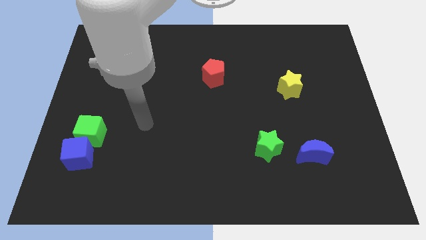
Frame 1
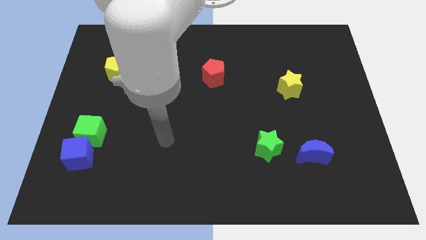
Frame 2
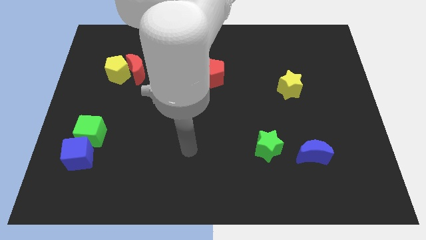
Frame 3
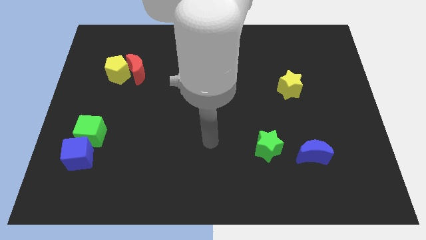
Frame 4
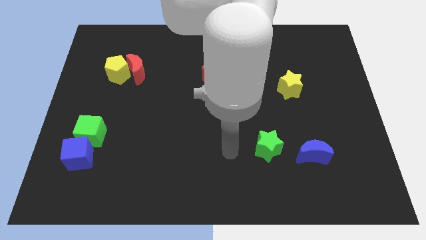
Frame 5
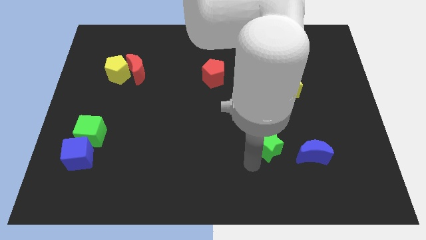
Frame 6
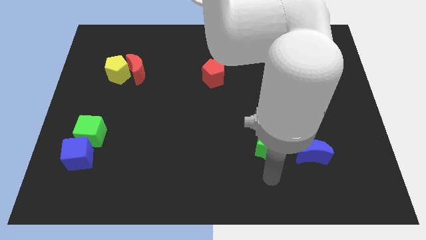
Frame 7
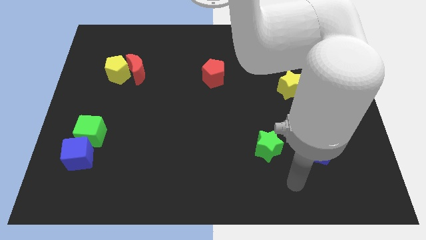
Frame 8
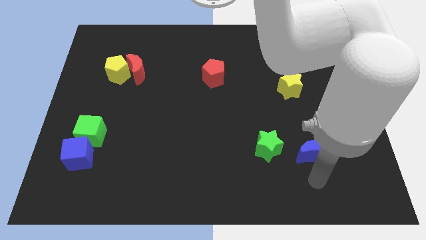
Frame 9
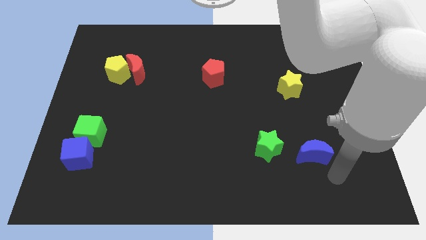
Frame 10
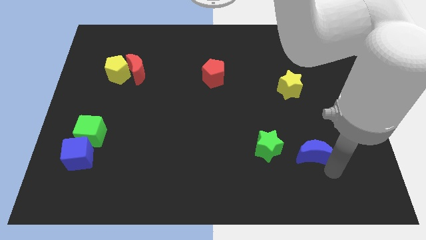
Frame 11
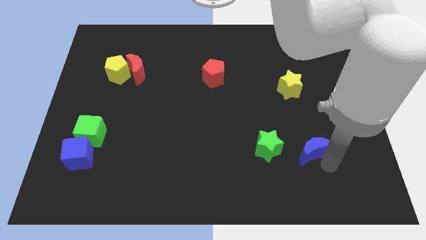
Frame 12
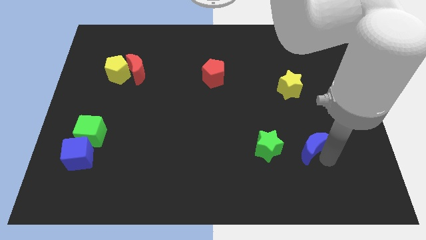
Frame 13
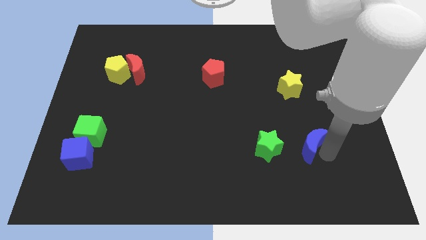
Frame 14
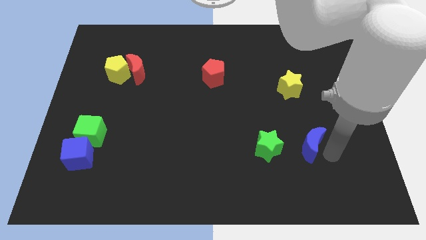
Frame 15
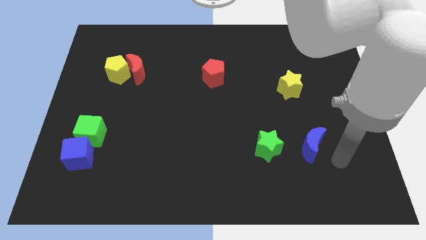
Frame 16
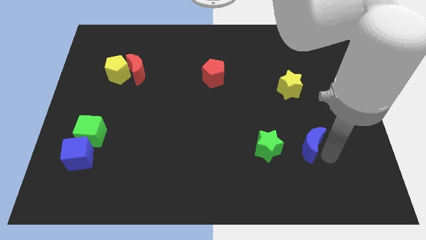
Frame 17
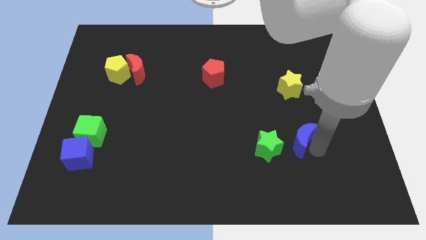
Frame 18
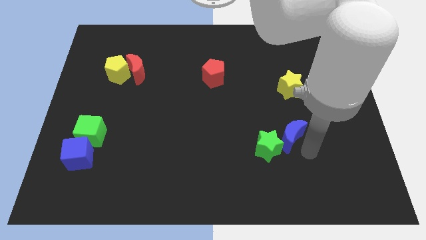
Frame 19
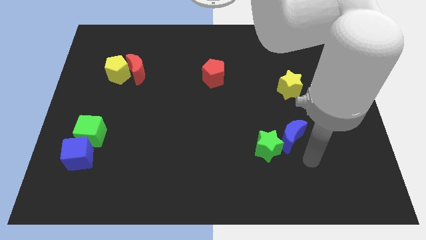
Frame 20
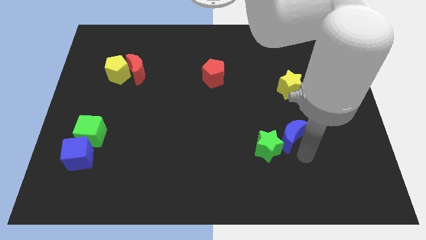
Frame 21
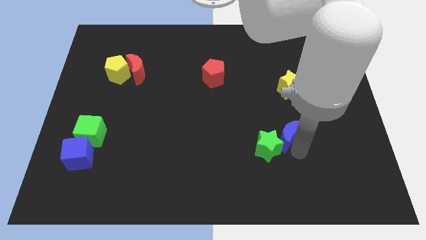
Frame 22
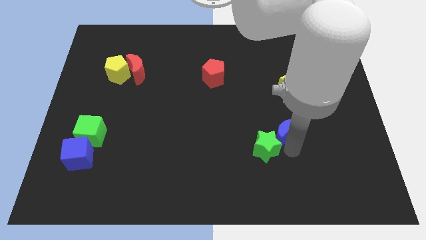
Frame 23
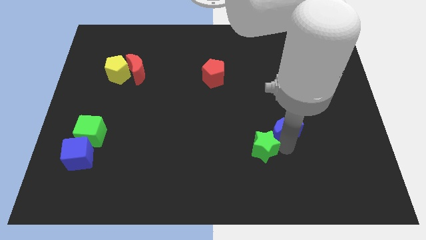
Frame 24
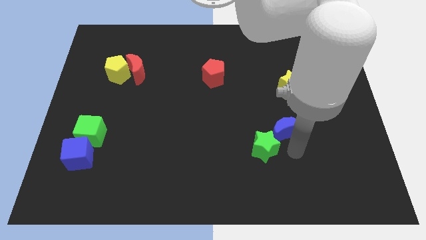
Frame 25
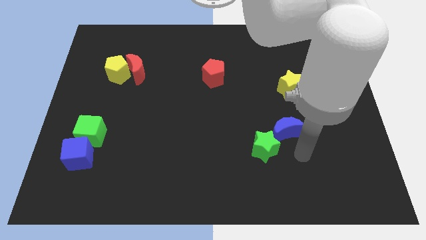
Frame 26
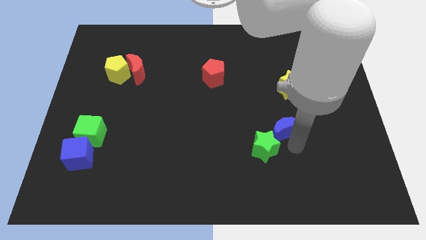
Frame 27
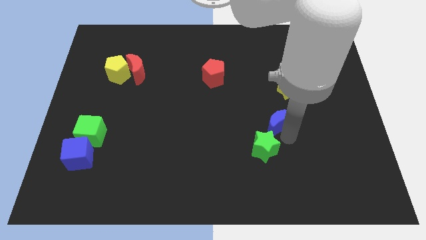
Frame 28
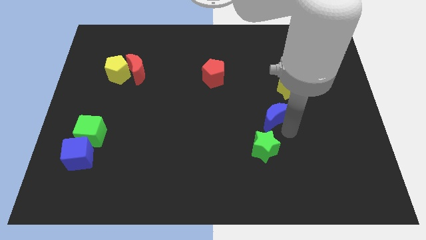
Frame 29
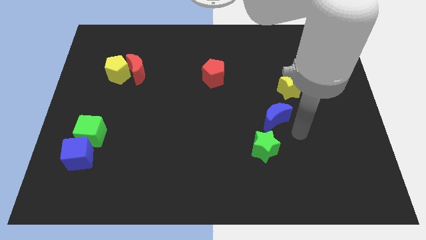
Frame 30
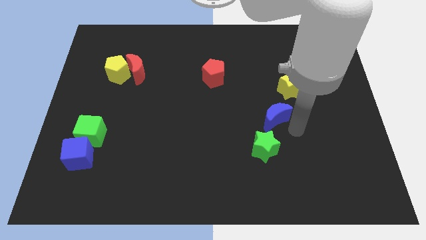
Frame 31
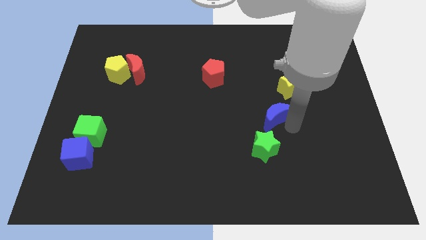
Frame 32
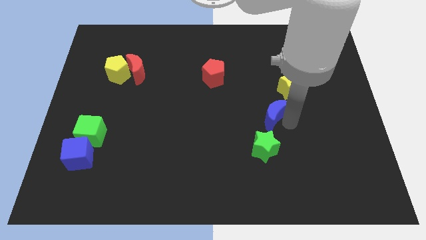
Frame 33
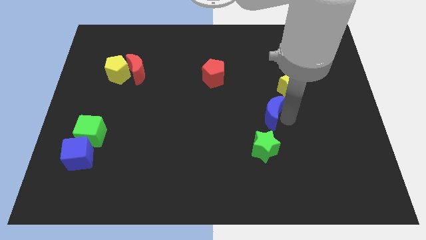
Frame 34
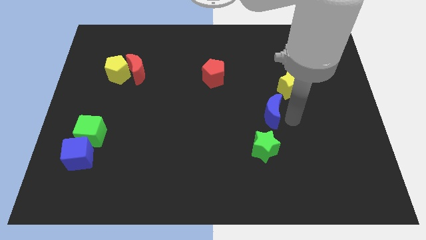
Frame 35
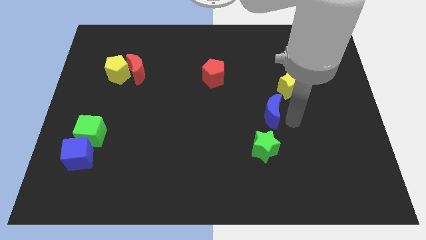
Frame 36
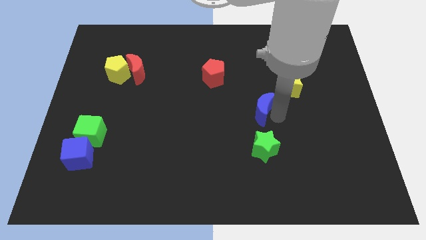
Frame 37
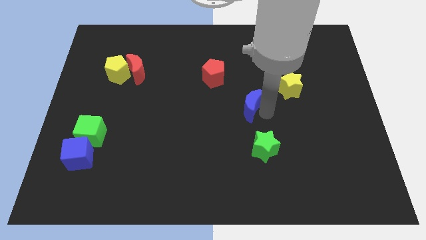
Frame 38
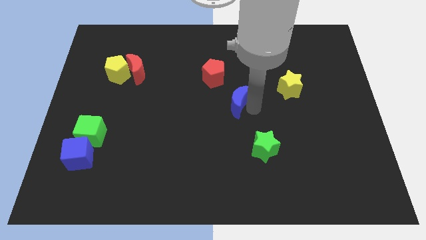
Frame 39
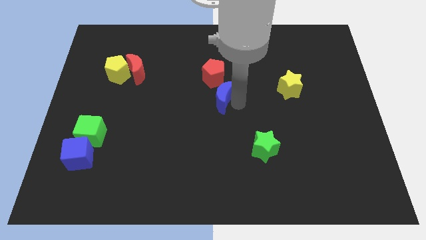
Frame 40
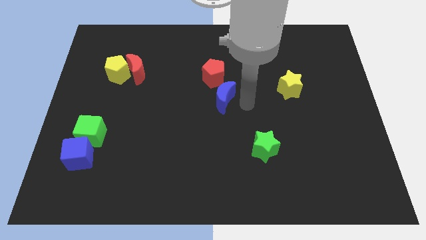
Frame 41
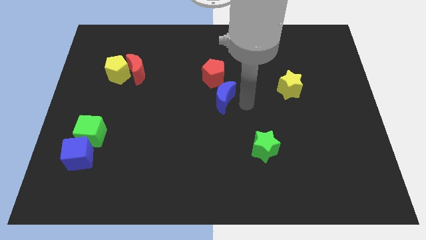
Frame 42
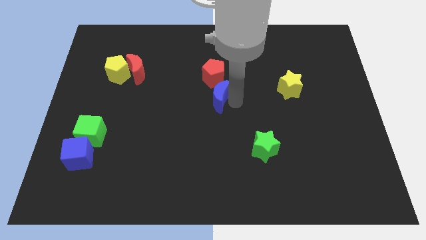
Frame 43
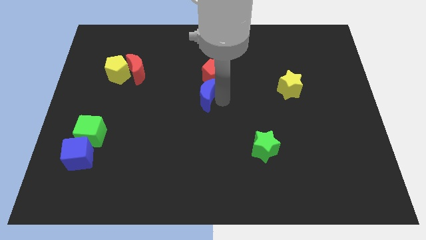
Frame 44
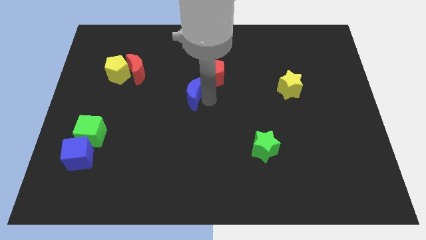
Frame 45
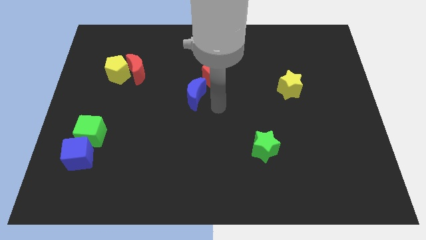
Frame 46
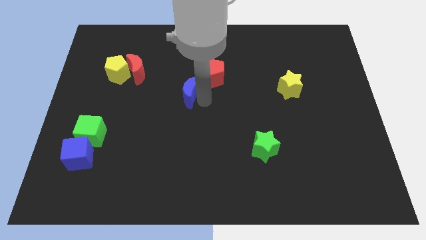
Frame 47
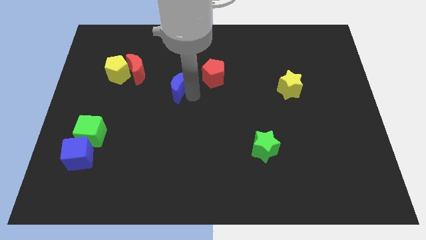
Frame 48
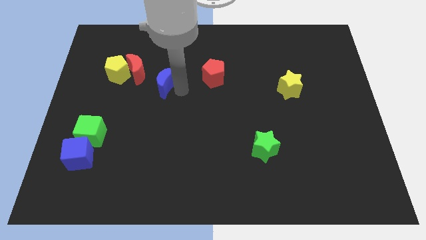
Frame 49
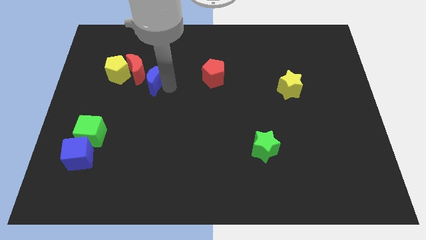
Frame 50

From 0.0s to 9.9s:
slide the blue moon towards the red moon

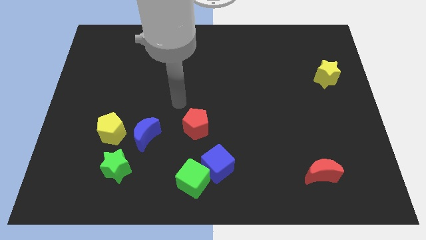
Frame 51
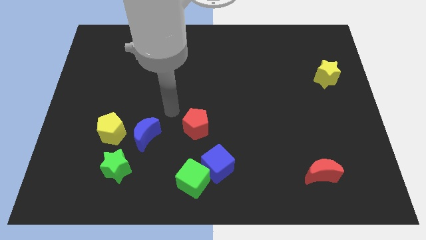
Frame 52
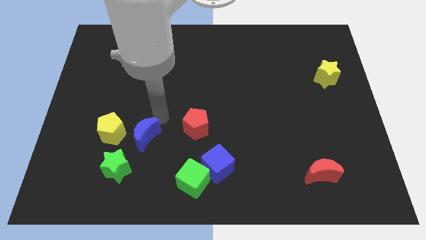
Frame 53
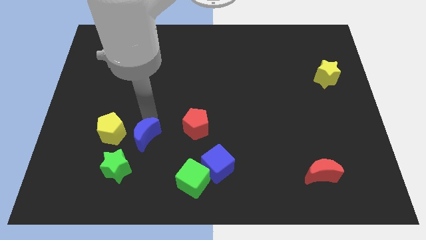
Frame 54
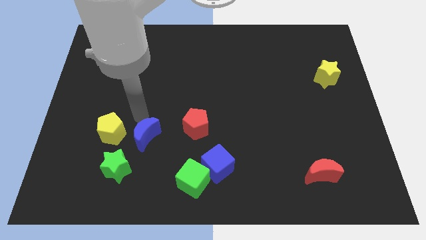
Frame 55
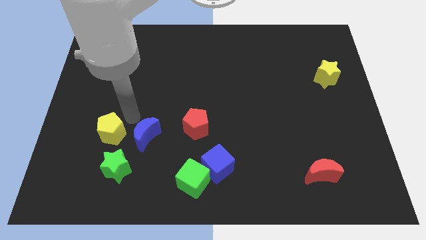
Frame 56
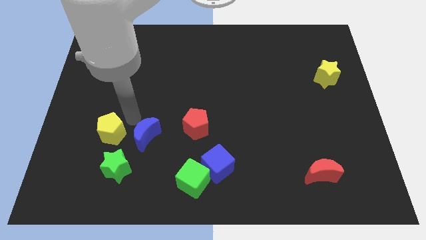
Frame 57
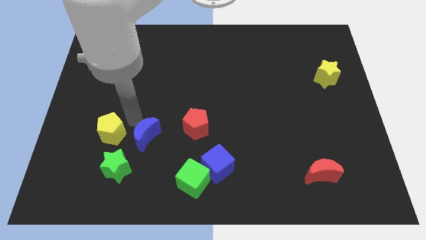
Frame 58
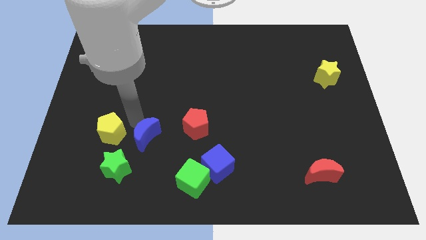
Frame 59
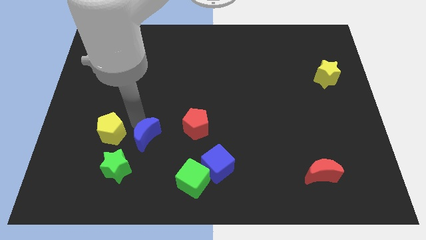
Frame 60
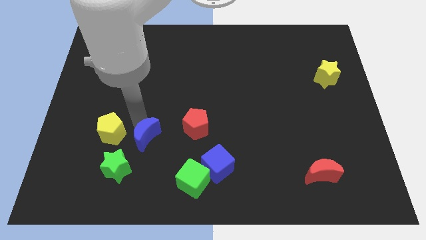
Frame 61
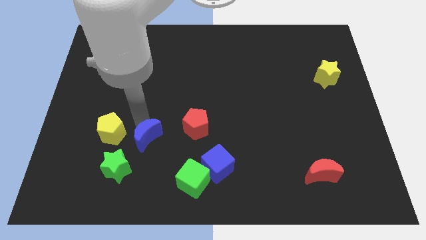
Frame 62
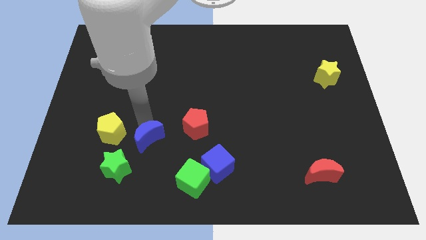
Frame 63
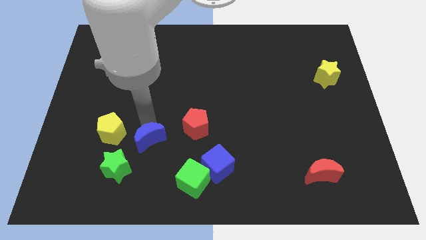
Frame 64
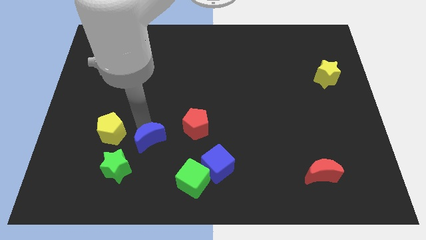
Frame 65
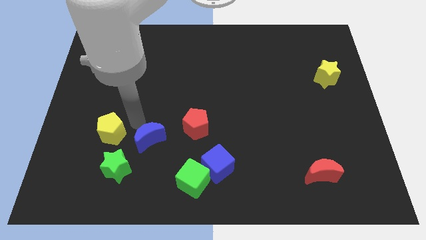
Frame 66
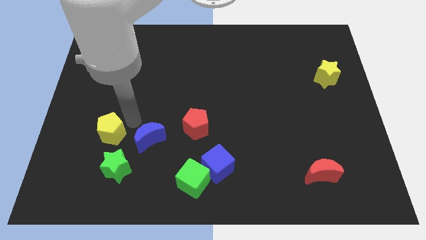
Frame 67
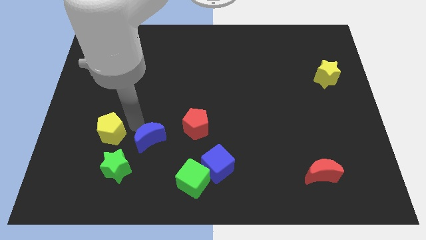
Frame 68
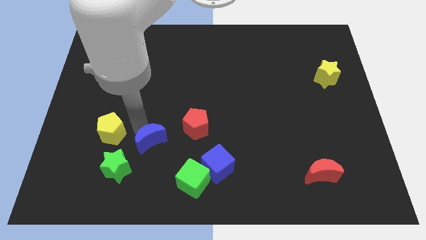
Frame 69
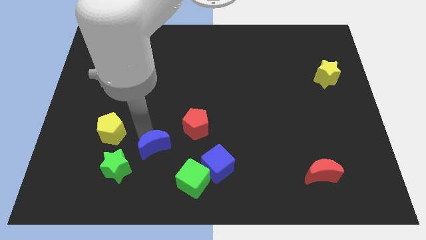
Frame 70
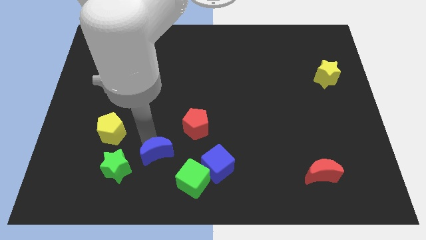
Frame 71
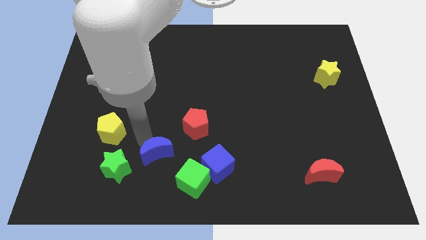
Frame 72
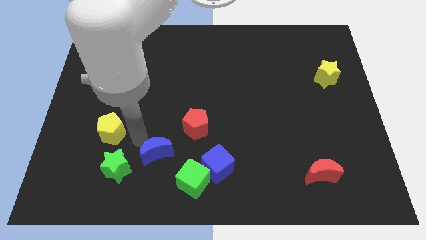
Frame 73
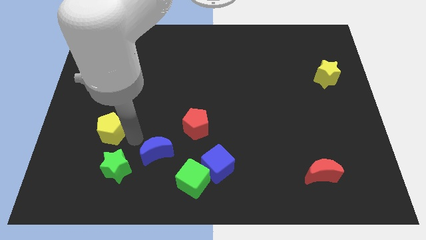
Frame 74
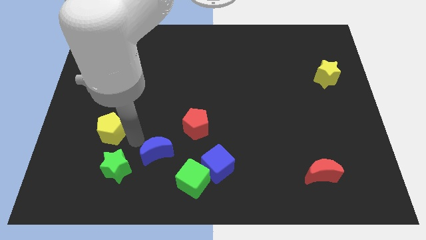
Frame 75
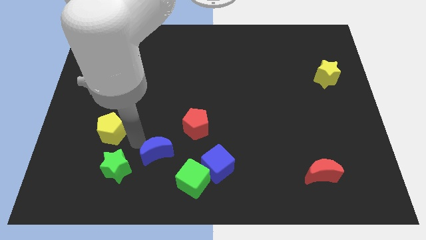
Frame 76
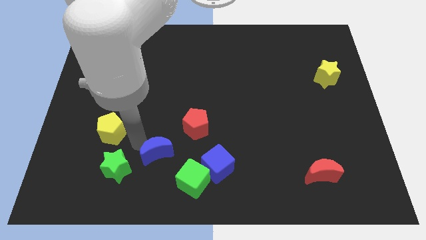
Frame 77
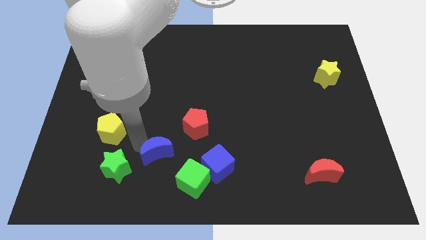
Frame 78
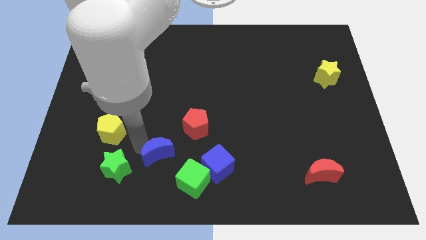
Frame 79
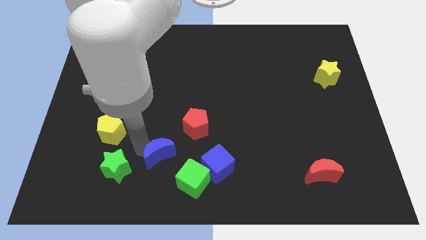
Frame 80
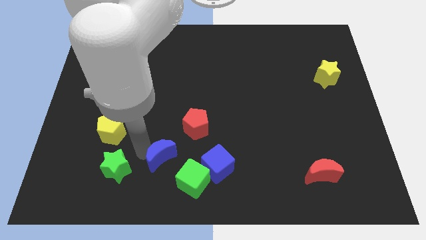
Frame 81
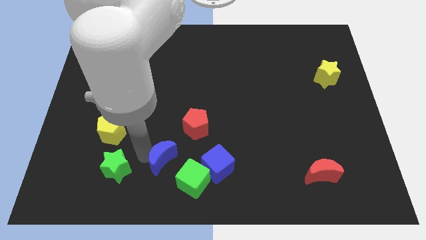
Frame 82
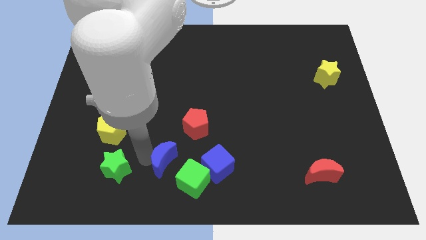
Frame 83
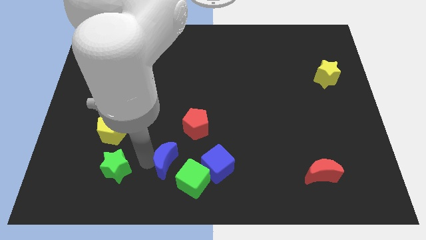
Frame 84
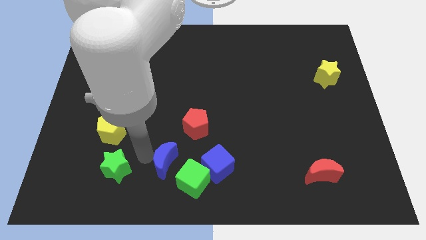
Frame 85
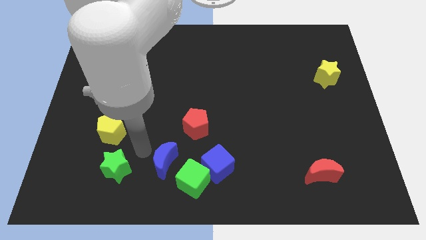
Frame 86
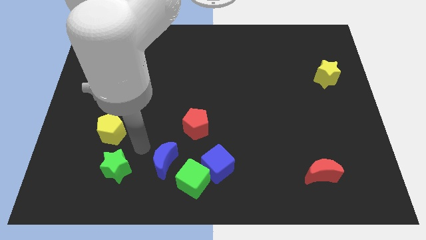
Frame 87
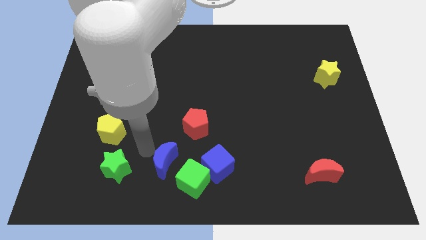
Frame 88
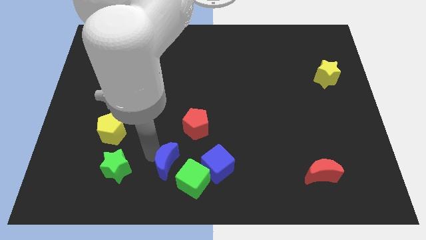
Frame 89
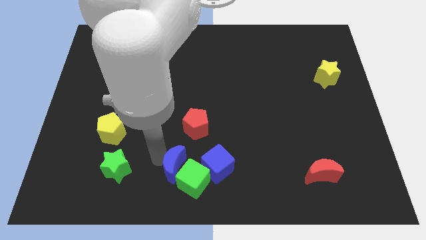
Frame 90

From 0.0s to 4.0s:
slide the blue moon next to the green cube
